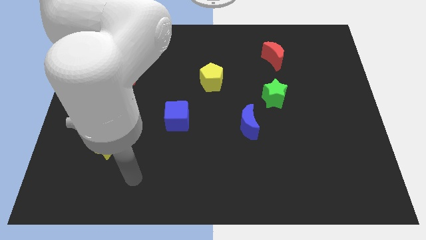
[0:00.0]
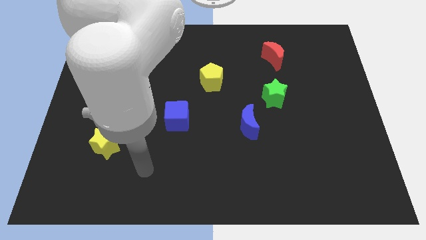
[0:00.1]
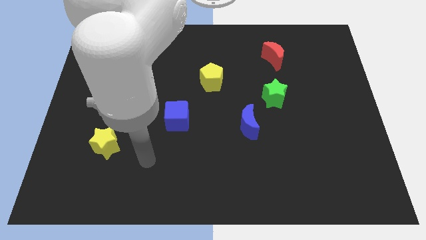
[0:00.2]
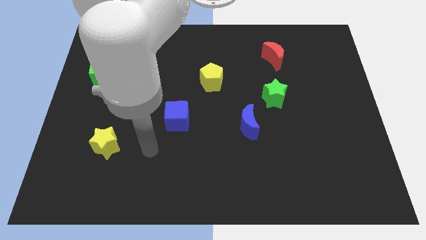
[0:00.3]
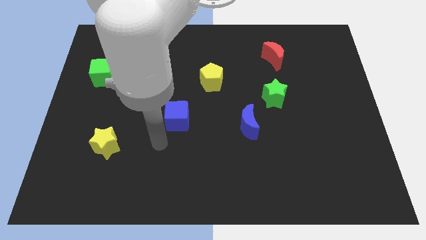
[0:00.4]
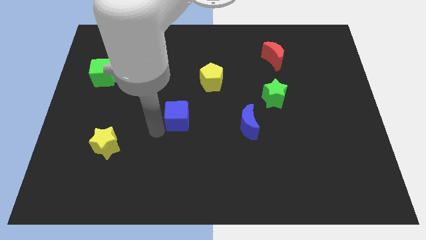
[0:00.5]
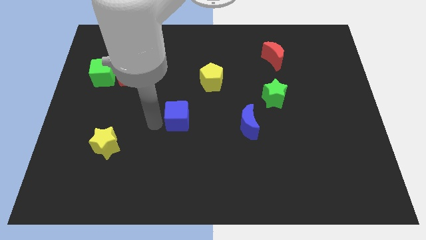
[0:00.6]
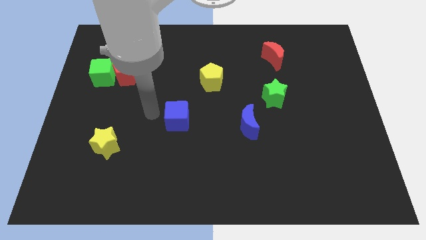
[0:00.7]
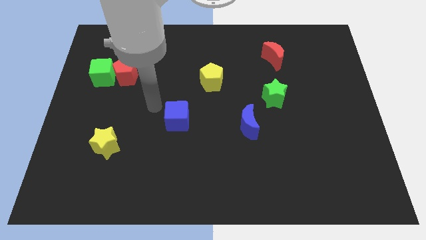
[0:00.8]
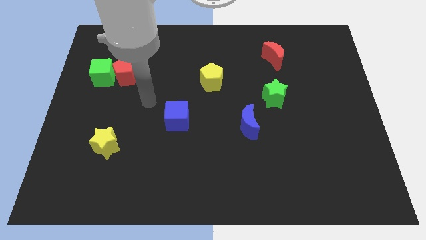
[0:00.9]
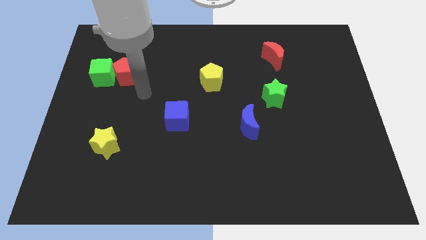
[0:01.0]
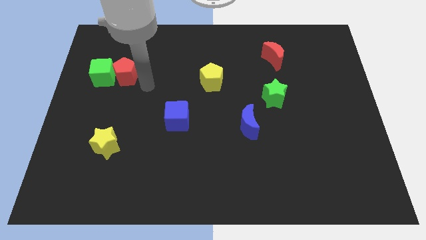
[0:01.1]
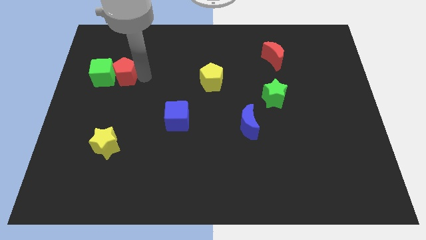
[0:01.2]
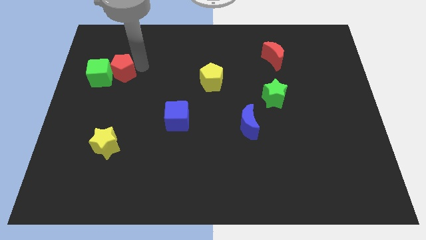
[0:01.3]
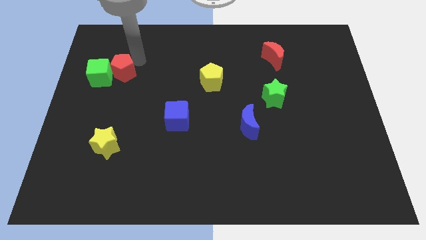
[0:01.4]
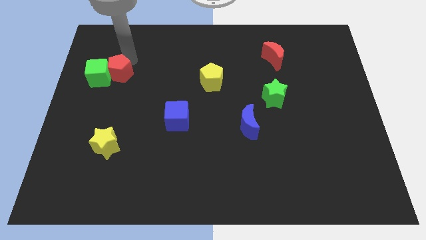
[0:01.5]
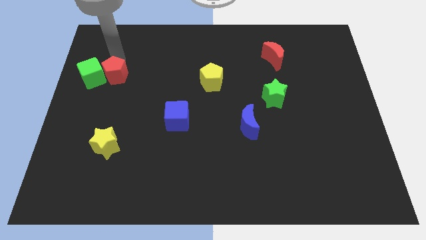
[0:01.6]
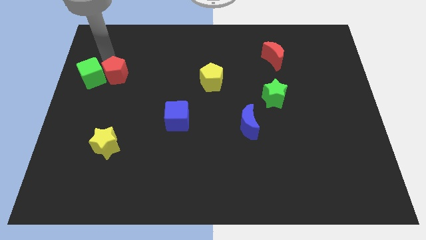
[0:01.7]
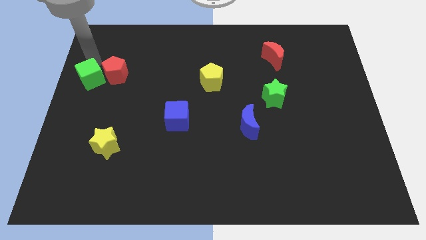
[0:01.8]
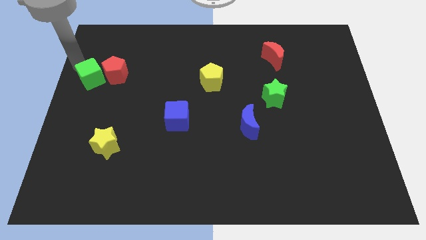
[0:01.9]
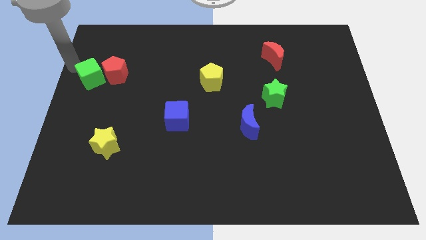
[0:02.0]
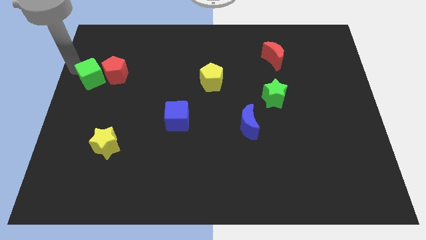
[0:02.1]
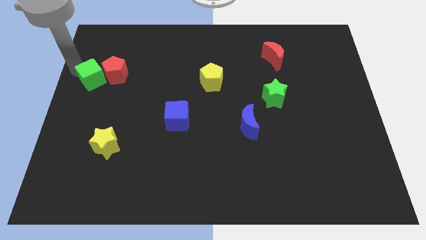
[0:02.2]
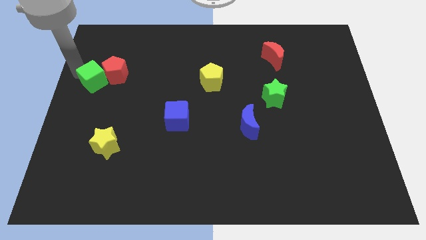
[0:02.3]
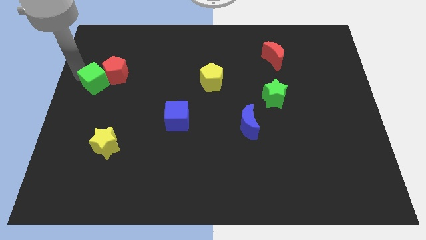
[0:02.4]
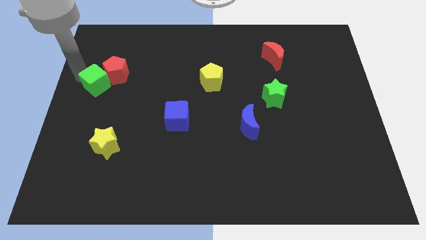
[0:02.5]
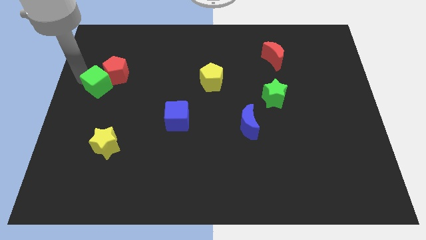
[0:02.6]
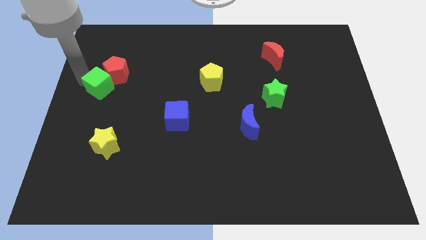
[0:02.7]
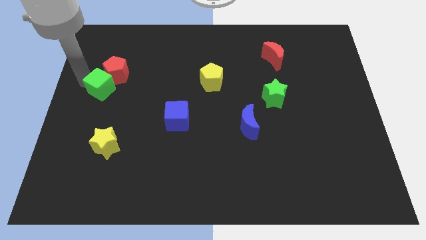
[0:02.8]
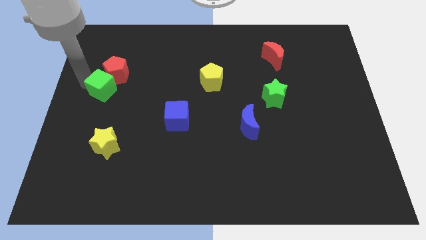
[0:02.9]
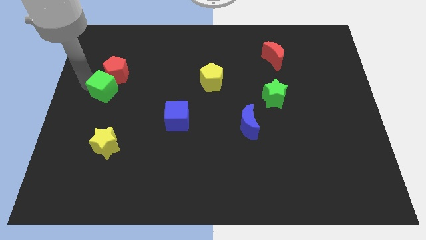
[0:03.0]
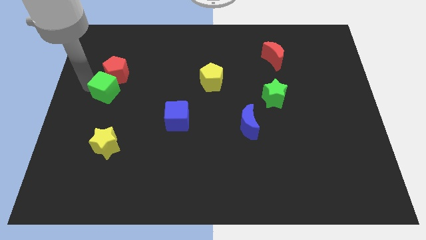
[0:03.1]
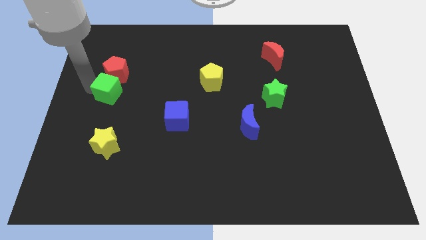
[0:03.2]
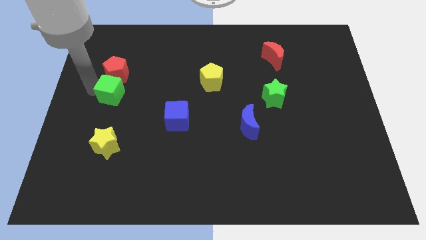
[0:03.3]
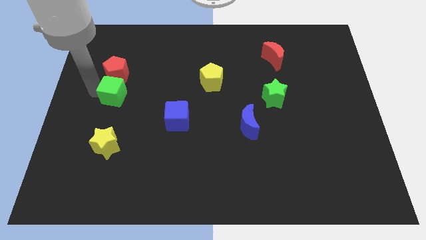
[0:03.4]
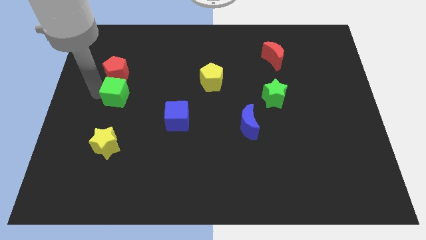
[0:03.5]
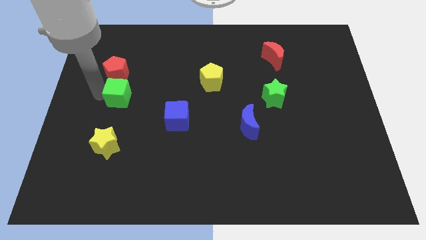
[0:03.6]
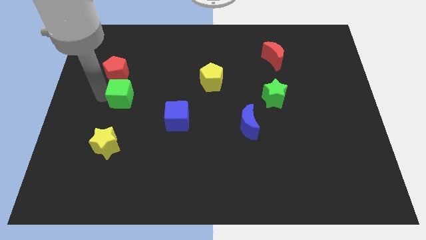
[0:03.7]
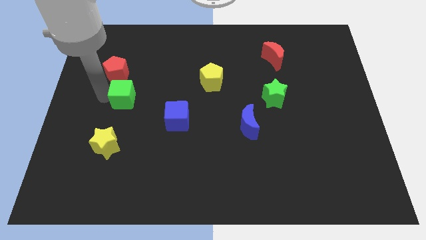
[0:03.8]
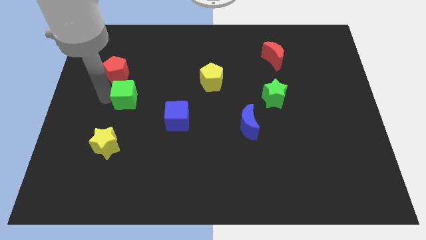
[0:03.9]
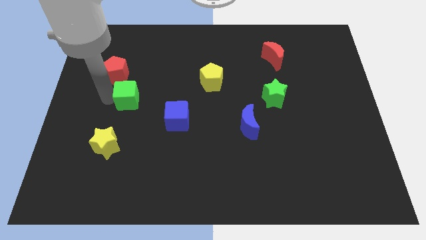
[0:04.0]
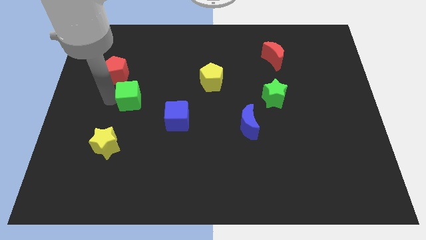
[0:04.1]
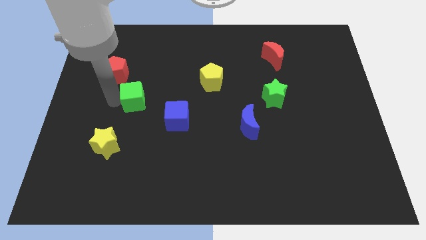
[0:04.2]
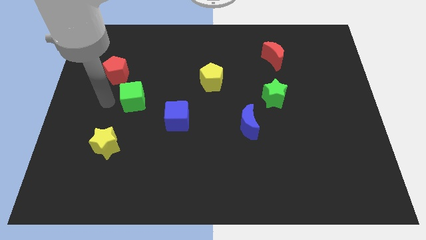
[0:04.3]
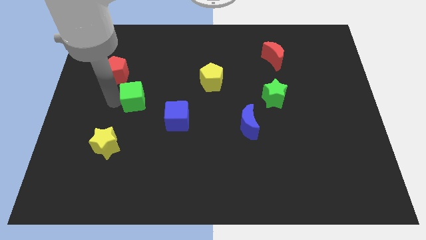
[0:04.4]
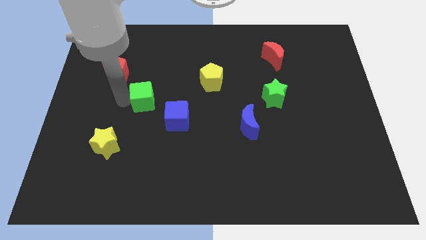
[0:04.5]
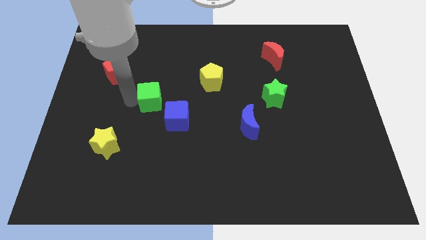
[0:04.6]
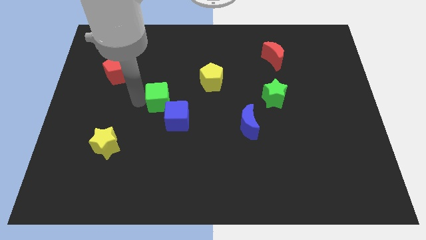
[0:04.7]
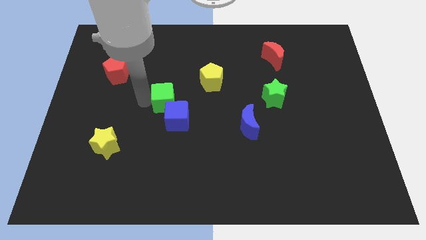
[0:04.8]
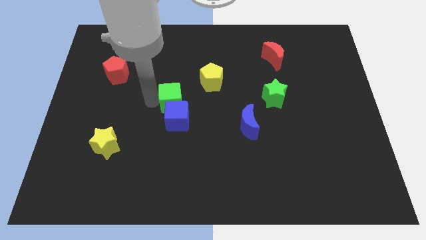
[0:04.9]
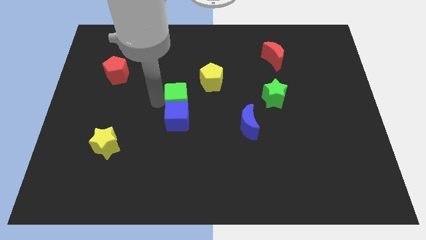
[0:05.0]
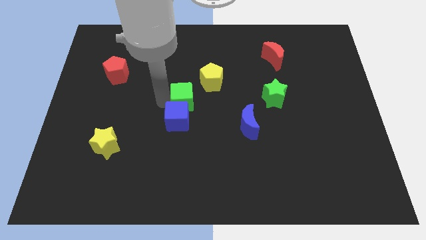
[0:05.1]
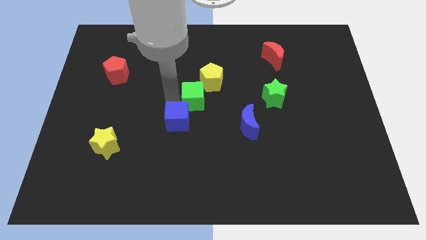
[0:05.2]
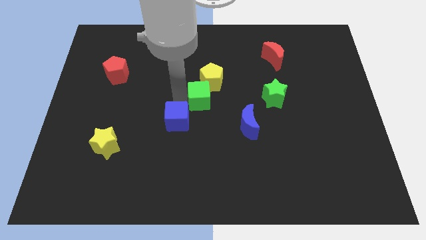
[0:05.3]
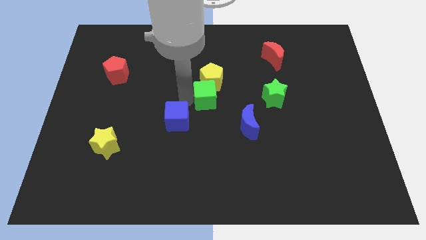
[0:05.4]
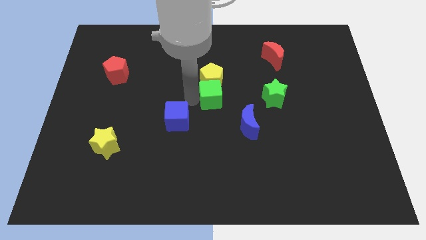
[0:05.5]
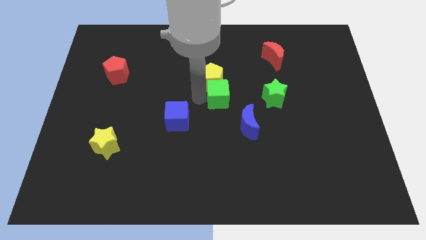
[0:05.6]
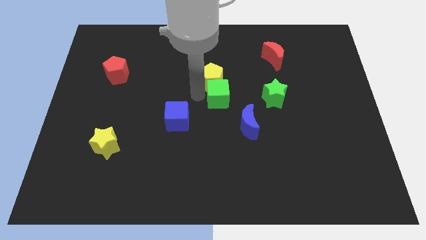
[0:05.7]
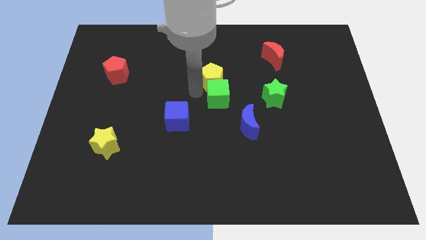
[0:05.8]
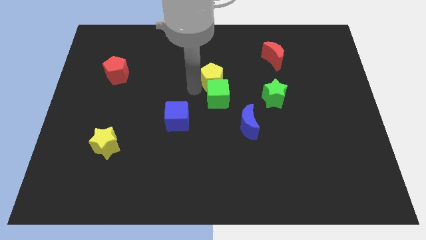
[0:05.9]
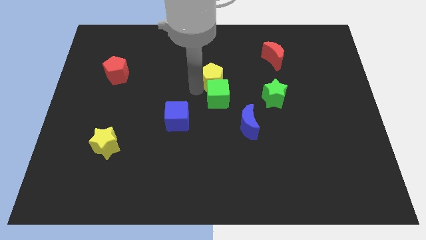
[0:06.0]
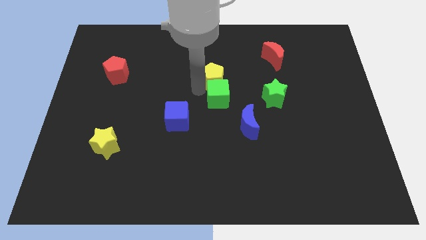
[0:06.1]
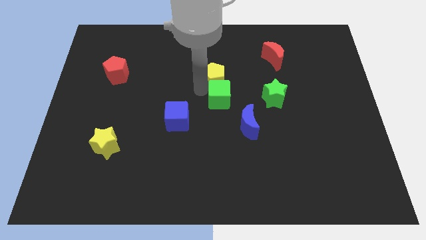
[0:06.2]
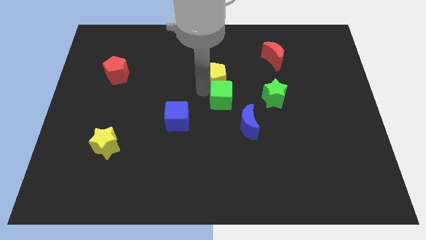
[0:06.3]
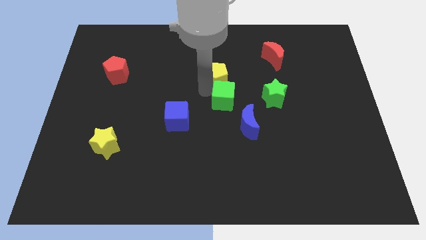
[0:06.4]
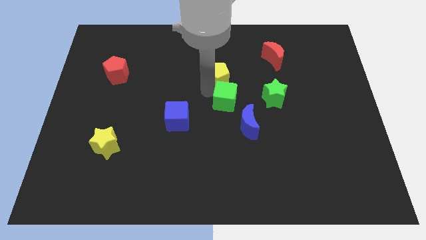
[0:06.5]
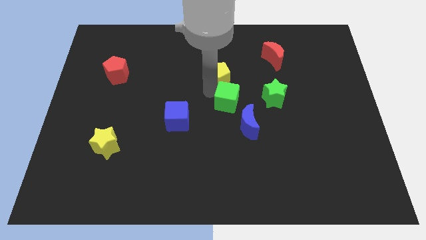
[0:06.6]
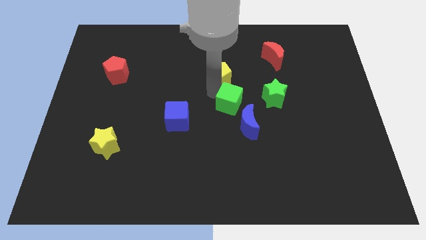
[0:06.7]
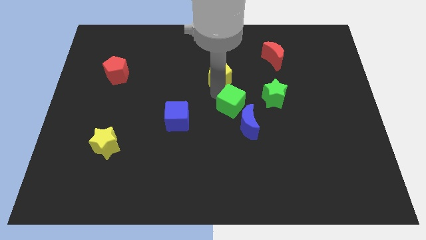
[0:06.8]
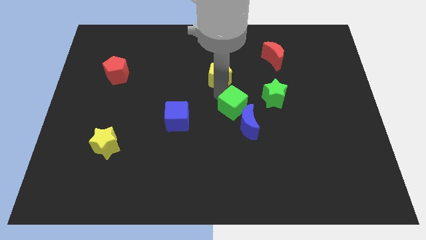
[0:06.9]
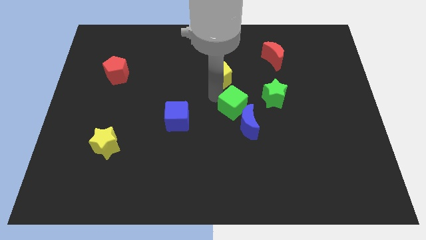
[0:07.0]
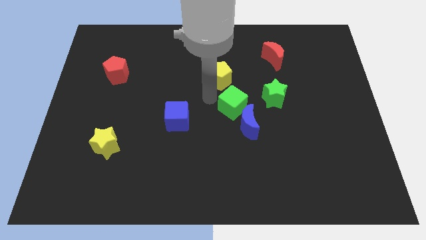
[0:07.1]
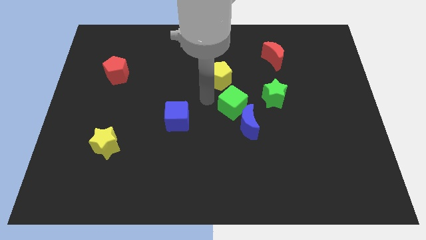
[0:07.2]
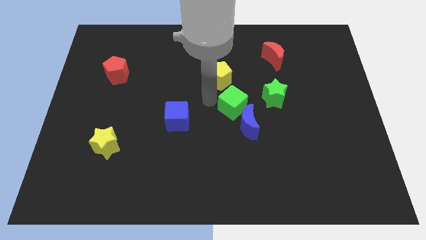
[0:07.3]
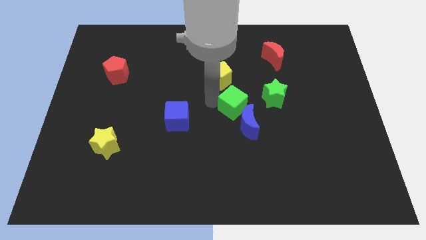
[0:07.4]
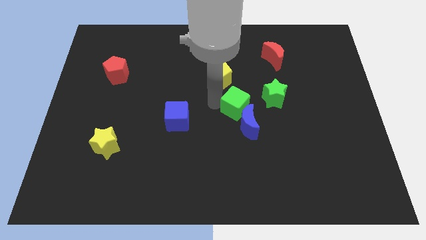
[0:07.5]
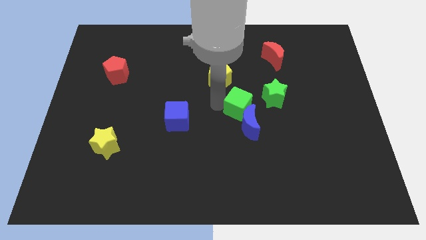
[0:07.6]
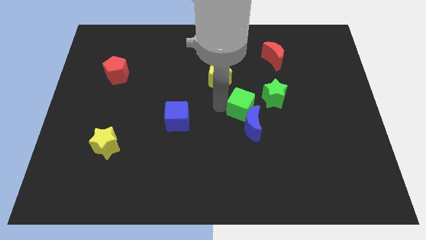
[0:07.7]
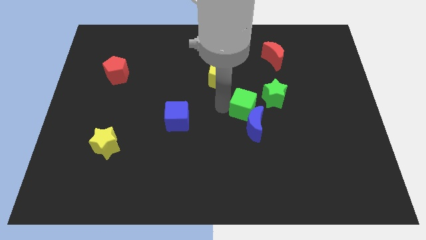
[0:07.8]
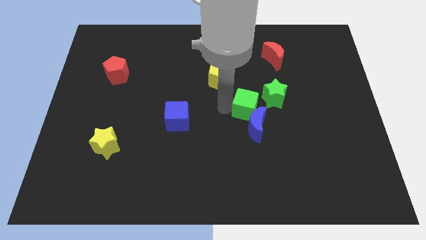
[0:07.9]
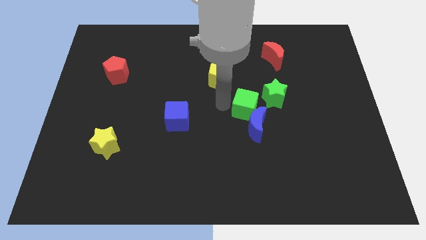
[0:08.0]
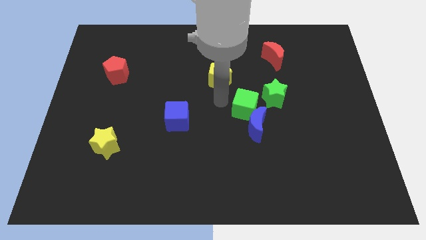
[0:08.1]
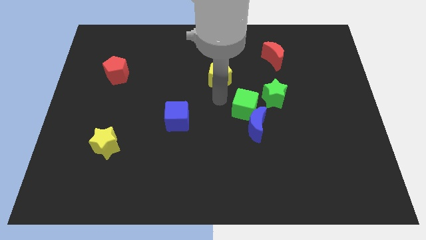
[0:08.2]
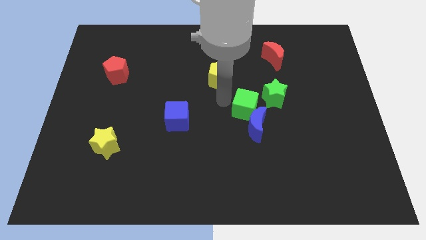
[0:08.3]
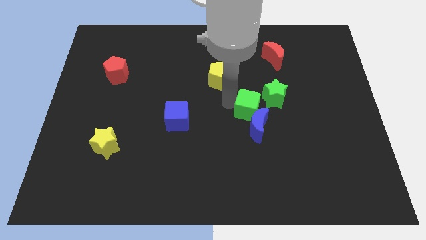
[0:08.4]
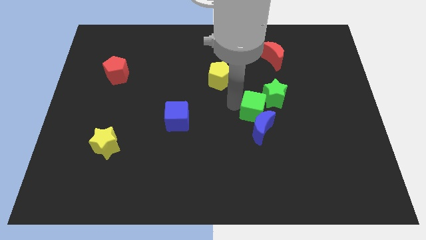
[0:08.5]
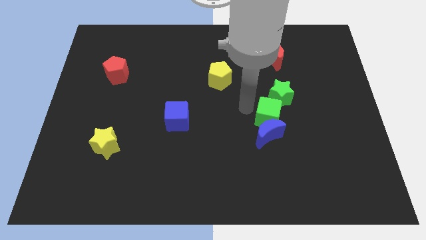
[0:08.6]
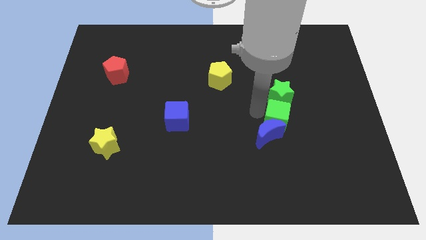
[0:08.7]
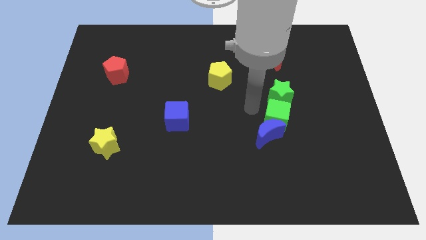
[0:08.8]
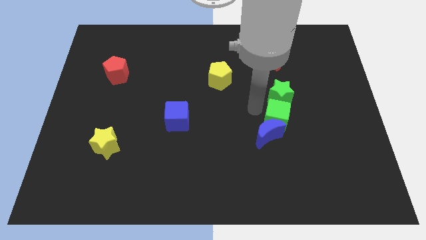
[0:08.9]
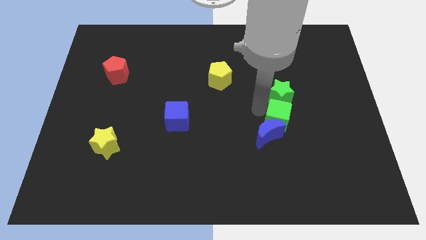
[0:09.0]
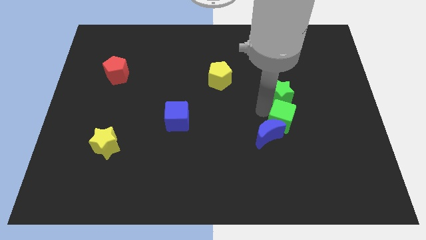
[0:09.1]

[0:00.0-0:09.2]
move the green cube to the right of the blue moon
